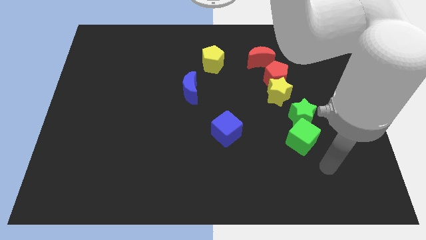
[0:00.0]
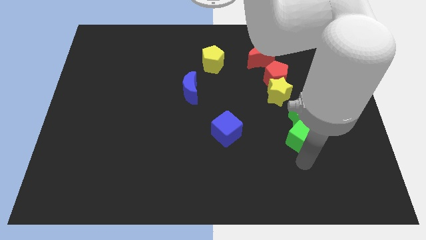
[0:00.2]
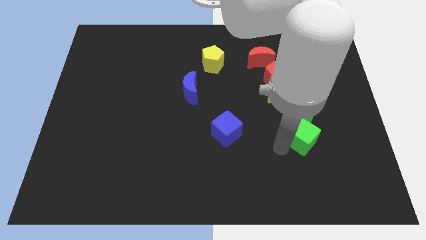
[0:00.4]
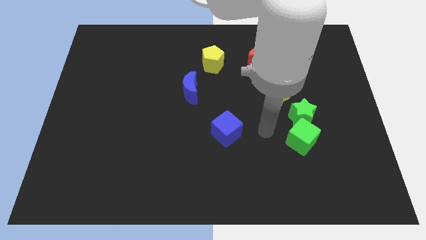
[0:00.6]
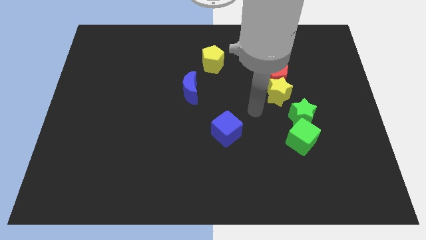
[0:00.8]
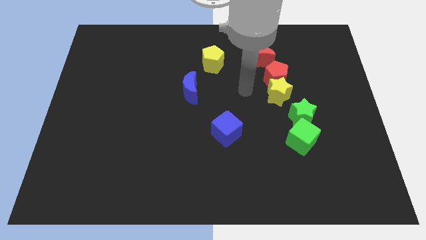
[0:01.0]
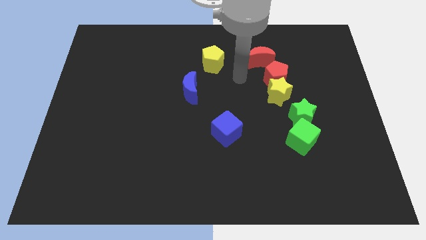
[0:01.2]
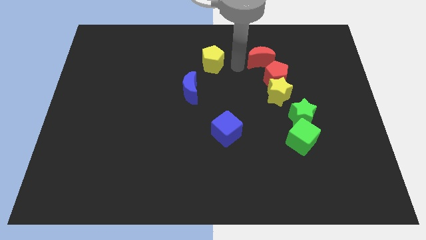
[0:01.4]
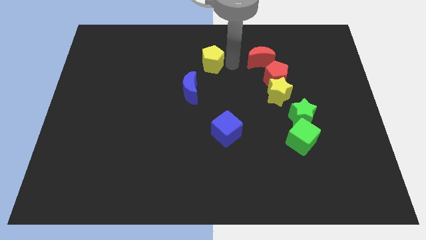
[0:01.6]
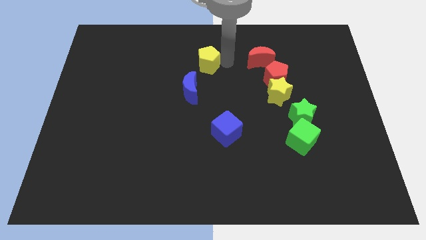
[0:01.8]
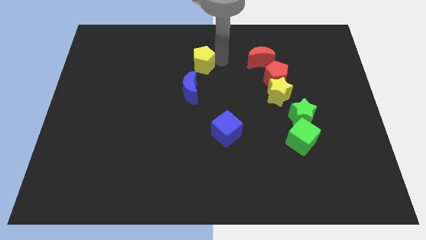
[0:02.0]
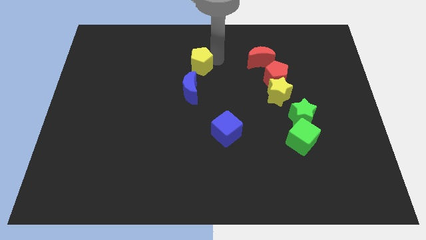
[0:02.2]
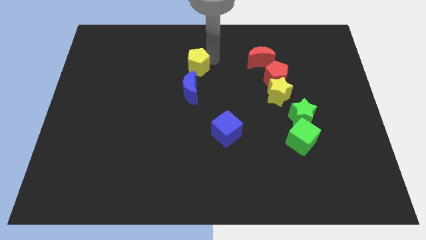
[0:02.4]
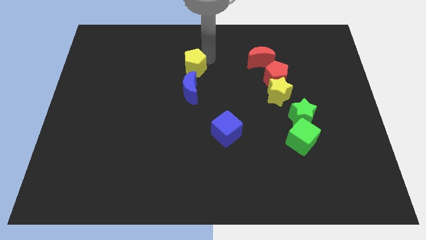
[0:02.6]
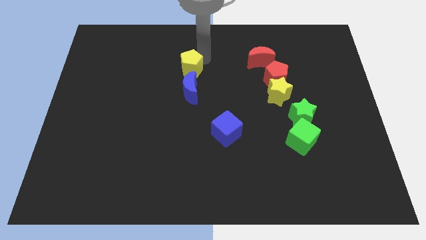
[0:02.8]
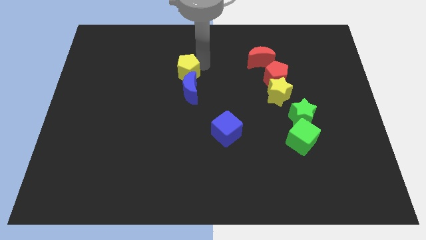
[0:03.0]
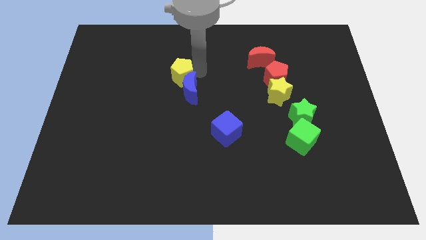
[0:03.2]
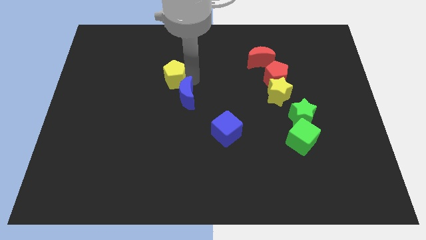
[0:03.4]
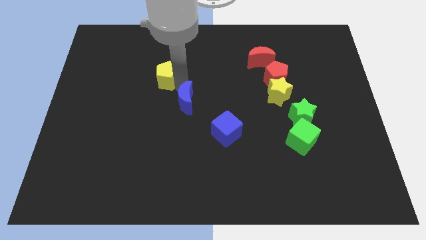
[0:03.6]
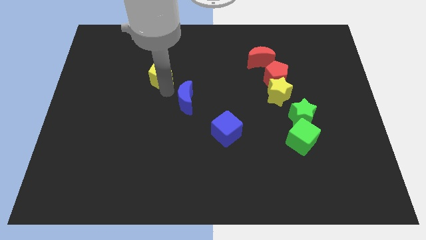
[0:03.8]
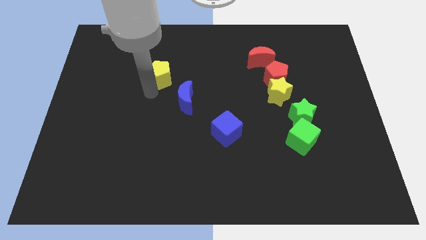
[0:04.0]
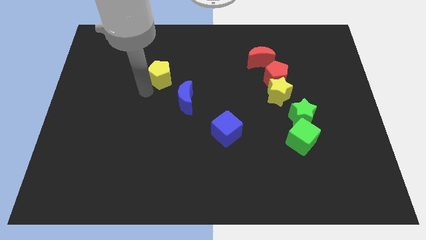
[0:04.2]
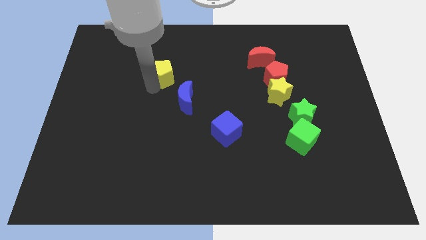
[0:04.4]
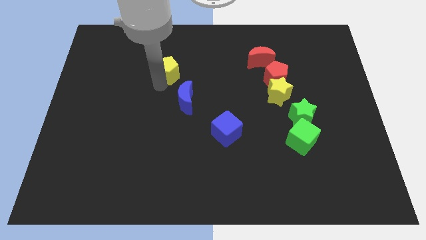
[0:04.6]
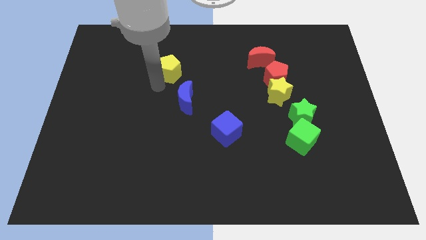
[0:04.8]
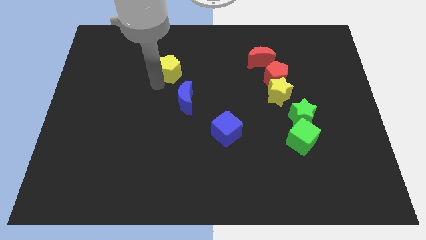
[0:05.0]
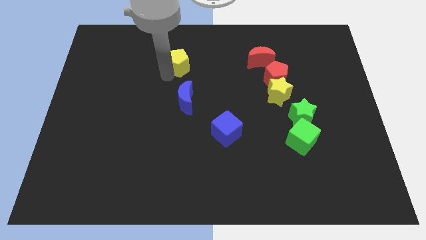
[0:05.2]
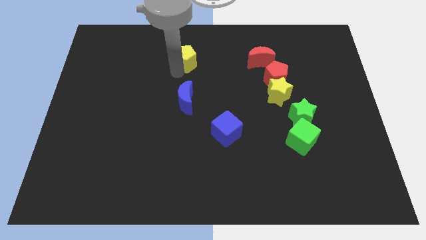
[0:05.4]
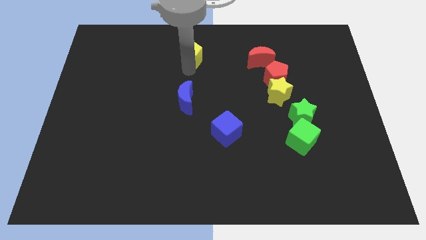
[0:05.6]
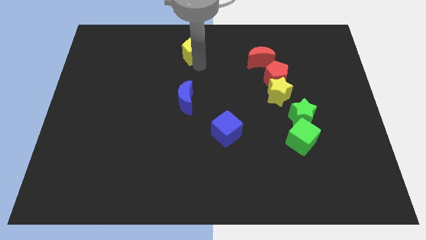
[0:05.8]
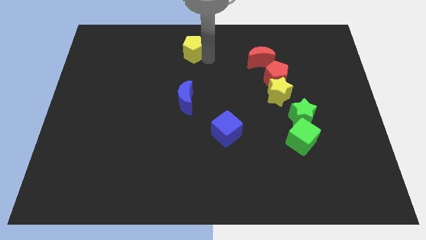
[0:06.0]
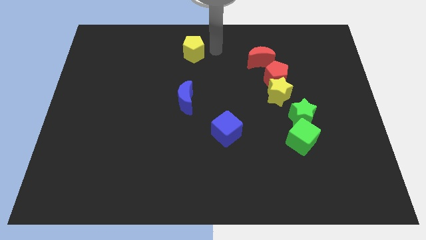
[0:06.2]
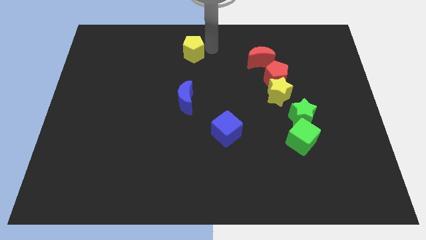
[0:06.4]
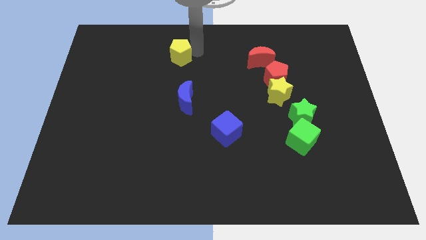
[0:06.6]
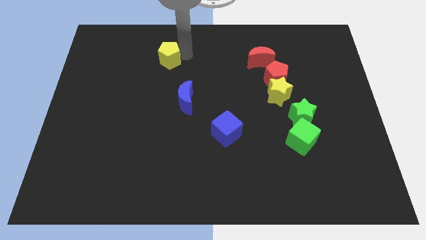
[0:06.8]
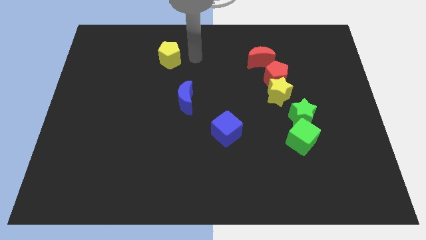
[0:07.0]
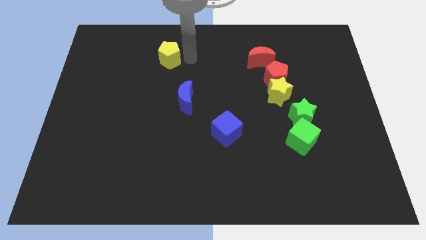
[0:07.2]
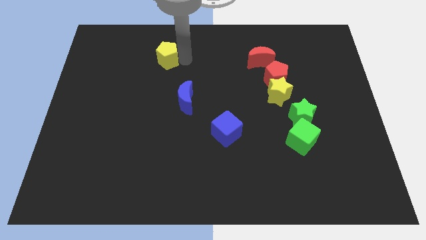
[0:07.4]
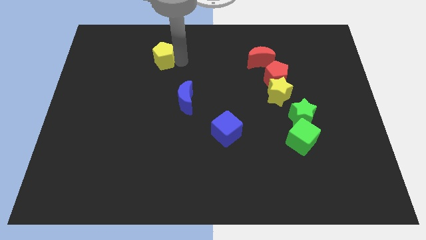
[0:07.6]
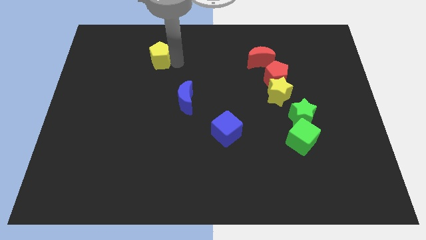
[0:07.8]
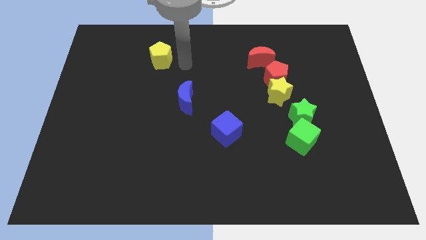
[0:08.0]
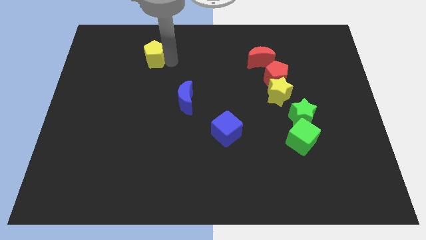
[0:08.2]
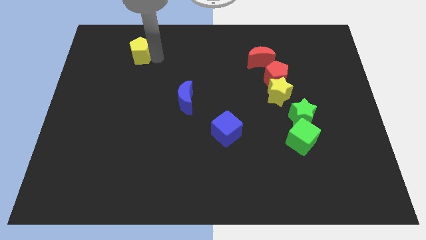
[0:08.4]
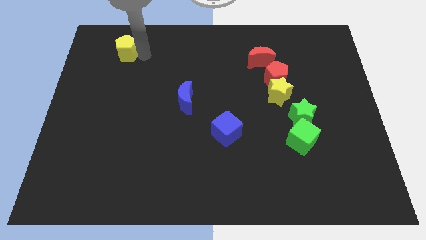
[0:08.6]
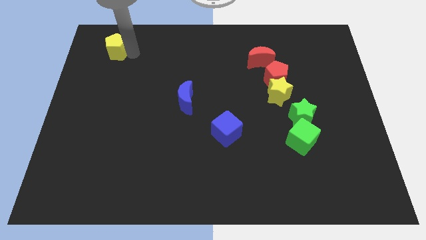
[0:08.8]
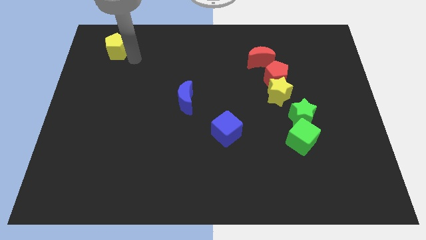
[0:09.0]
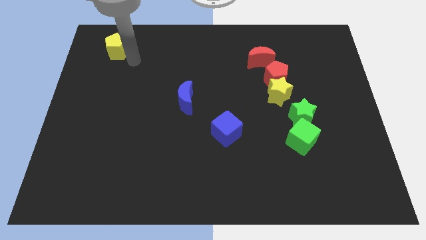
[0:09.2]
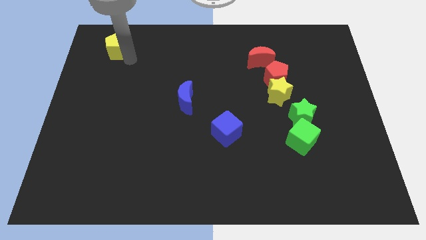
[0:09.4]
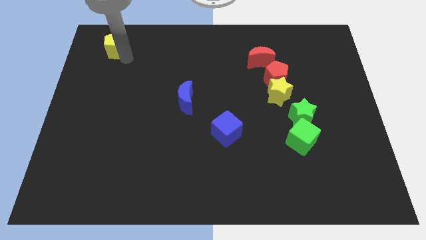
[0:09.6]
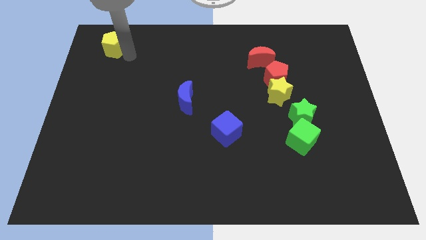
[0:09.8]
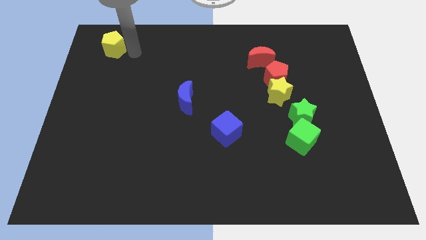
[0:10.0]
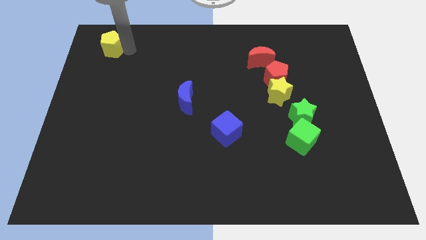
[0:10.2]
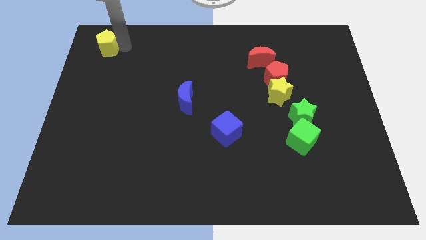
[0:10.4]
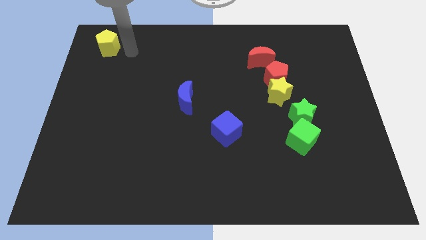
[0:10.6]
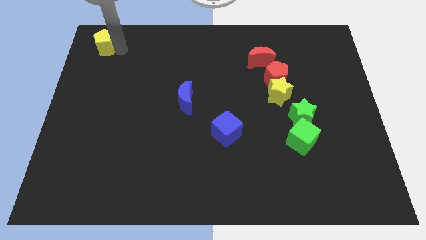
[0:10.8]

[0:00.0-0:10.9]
put the yellow pentagon to the top left of the board
